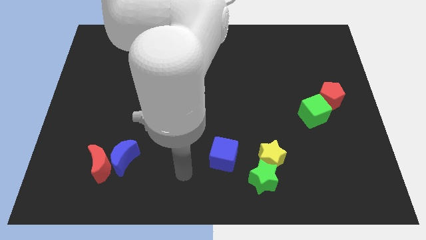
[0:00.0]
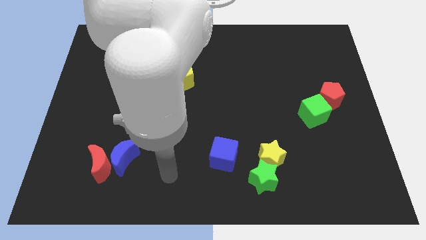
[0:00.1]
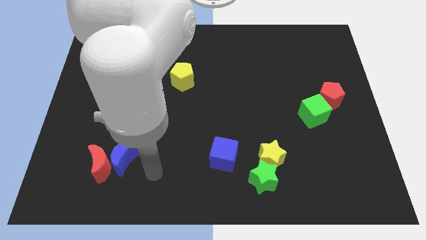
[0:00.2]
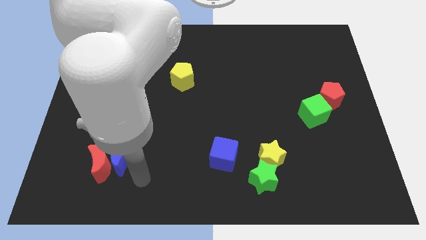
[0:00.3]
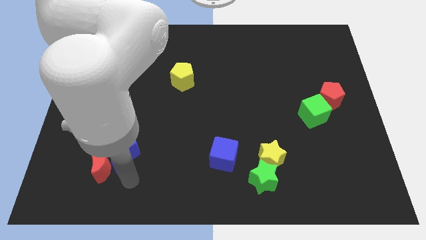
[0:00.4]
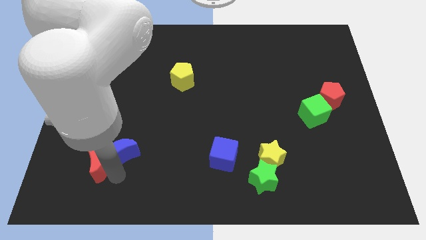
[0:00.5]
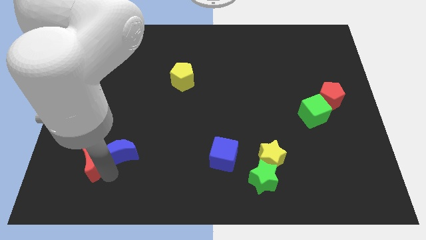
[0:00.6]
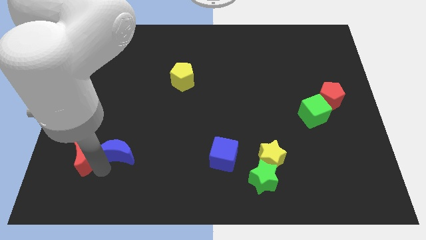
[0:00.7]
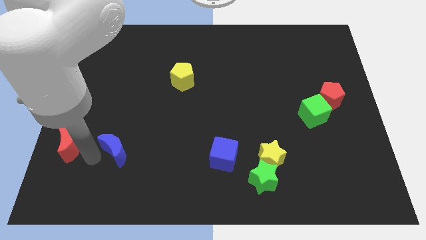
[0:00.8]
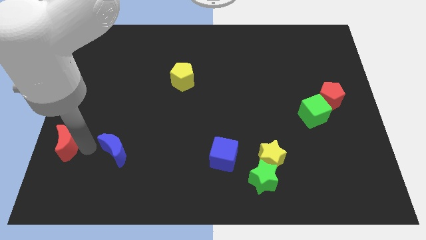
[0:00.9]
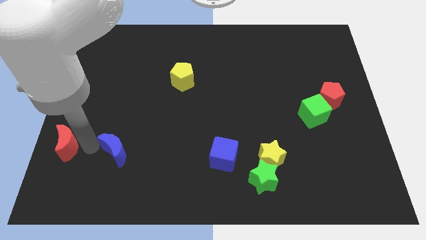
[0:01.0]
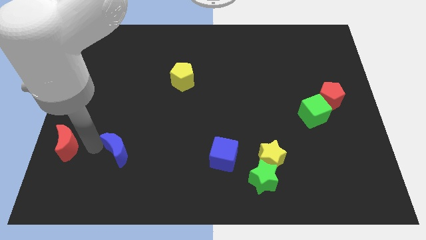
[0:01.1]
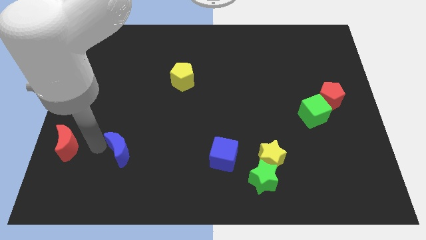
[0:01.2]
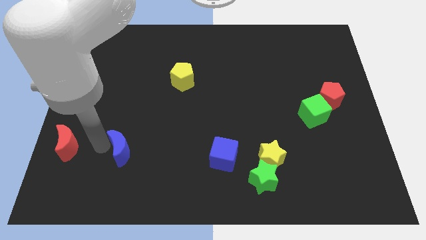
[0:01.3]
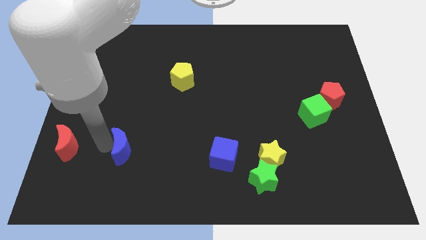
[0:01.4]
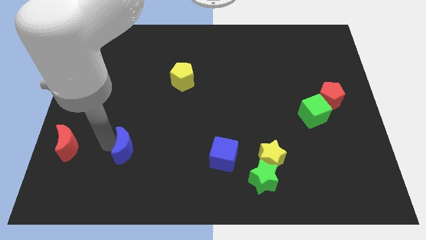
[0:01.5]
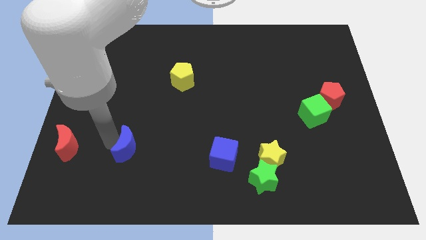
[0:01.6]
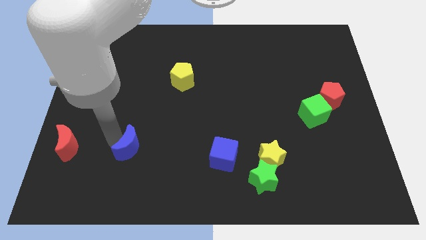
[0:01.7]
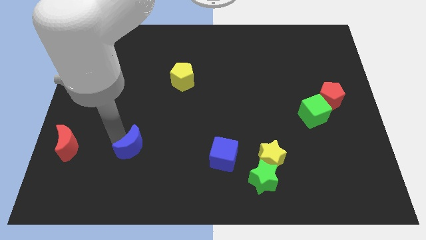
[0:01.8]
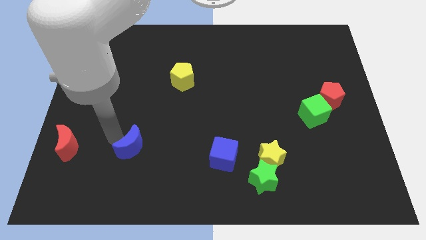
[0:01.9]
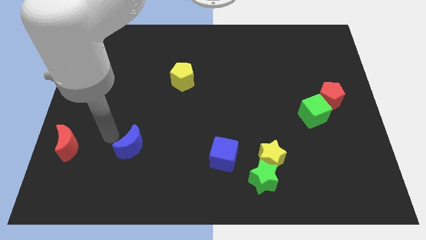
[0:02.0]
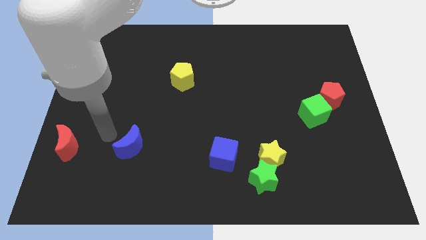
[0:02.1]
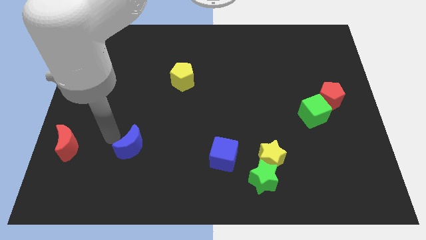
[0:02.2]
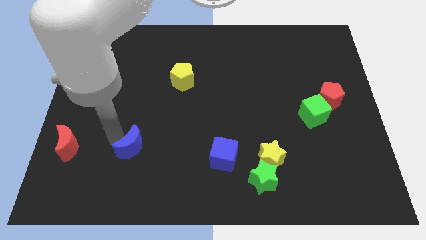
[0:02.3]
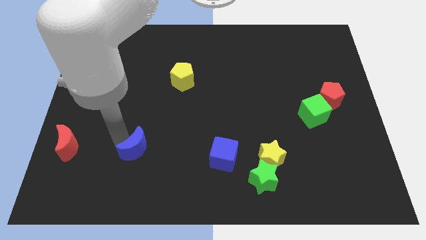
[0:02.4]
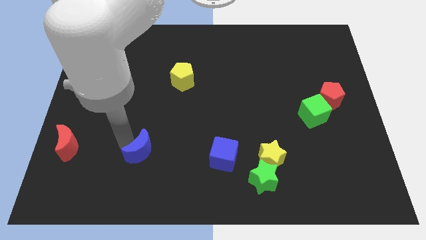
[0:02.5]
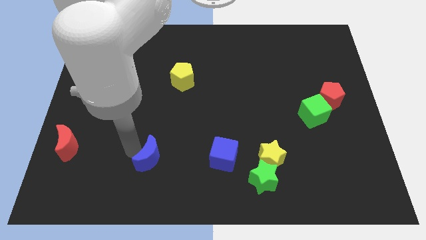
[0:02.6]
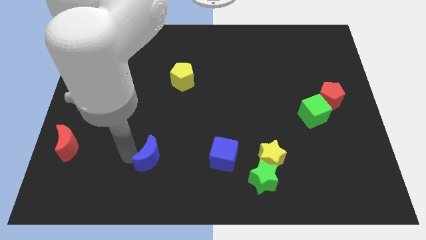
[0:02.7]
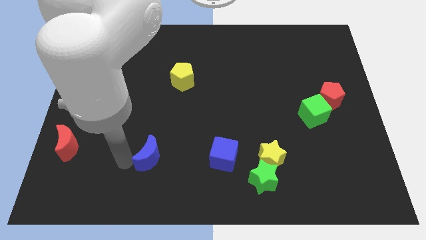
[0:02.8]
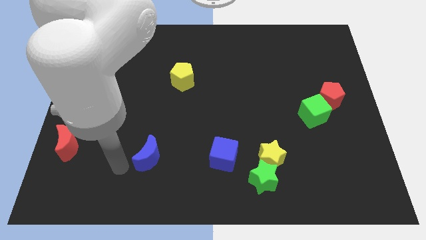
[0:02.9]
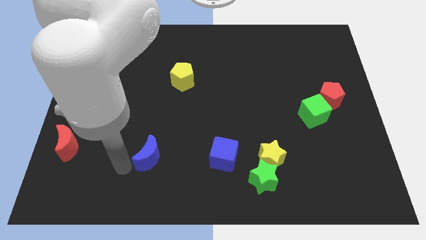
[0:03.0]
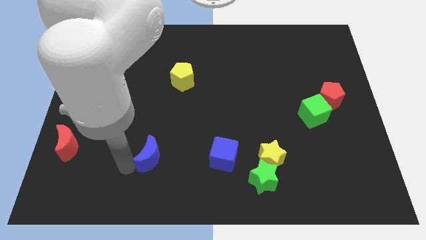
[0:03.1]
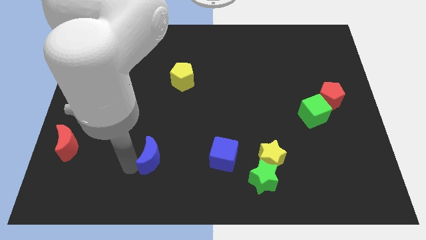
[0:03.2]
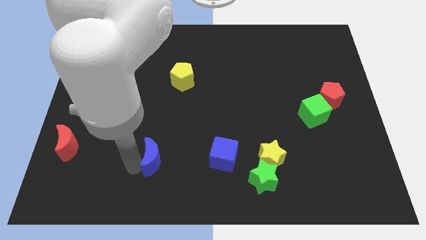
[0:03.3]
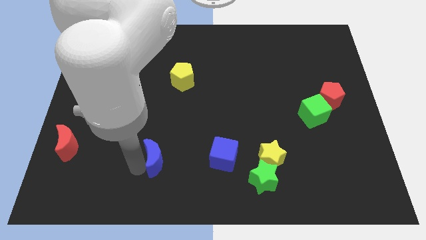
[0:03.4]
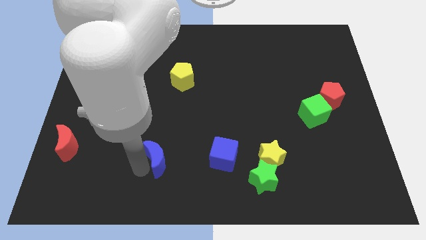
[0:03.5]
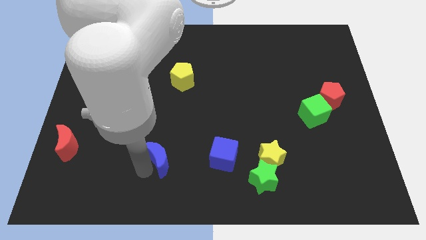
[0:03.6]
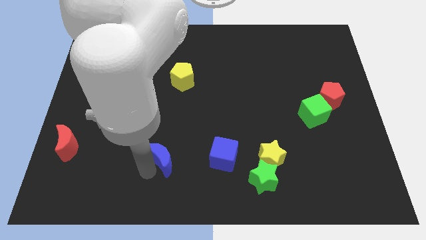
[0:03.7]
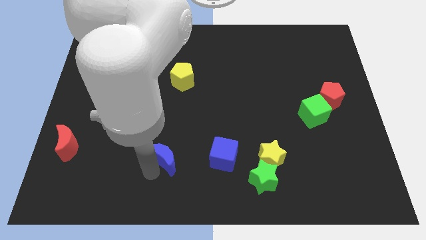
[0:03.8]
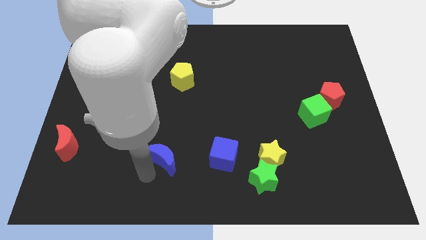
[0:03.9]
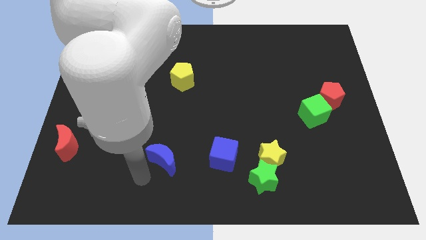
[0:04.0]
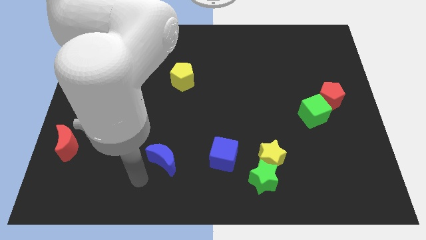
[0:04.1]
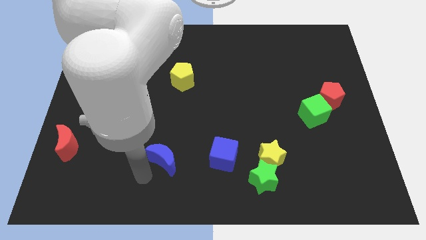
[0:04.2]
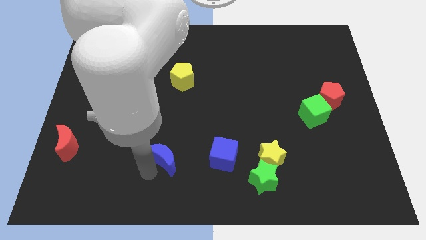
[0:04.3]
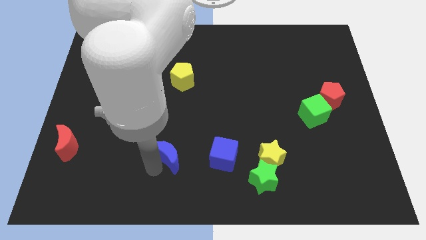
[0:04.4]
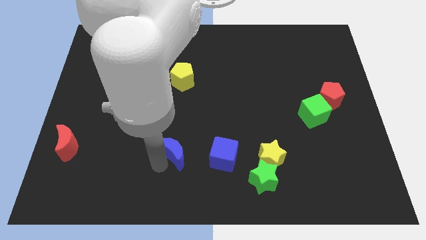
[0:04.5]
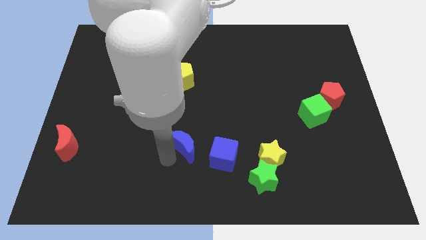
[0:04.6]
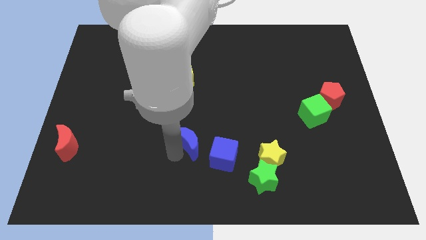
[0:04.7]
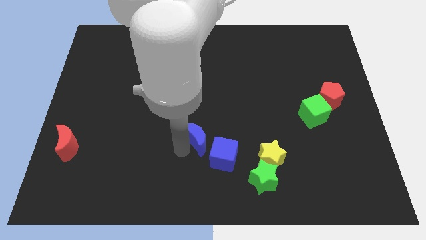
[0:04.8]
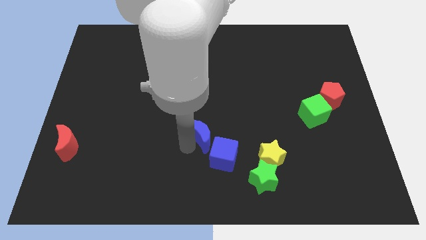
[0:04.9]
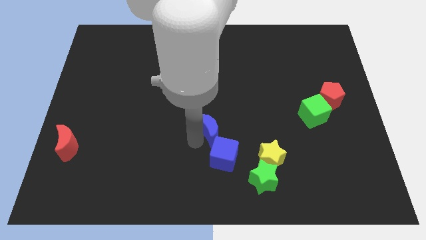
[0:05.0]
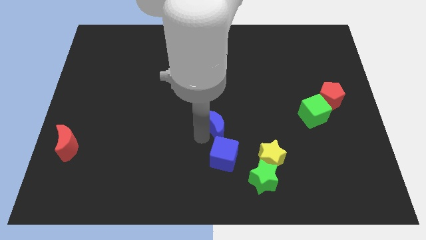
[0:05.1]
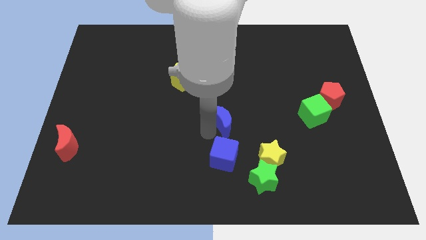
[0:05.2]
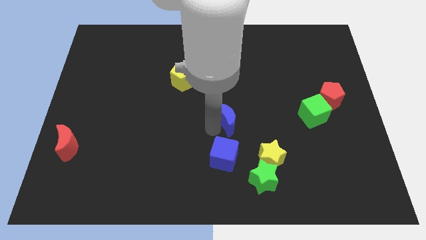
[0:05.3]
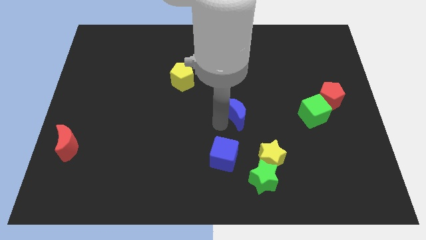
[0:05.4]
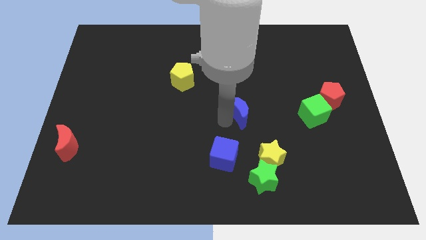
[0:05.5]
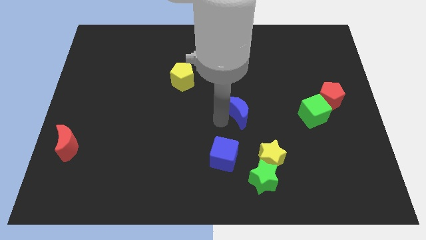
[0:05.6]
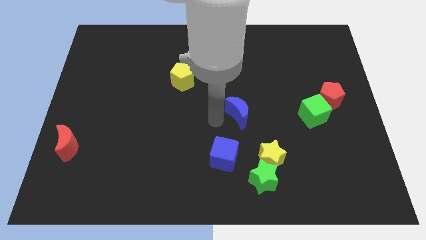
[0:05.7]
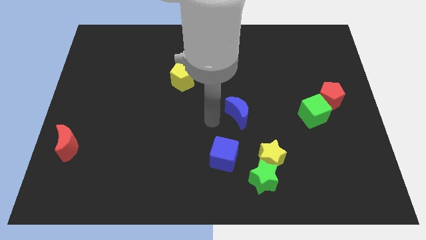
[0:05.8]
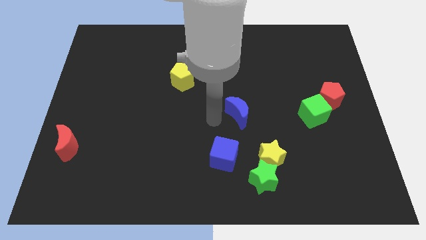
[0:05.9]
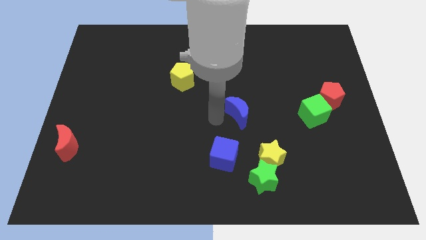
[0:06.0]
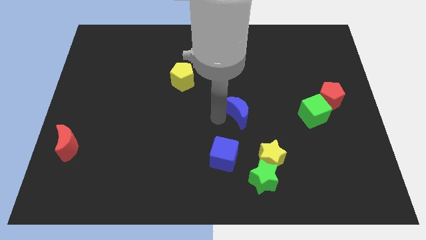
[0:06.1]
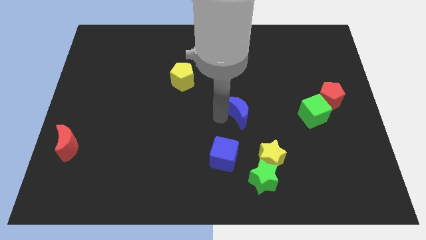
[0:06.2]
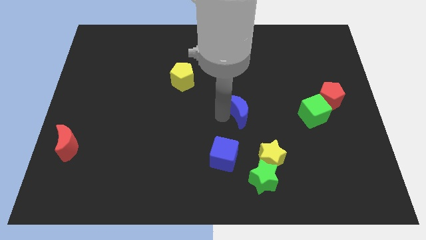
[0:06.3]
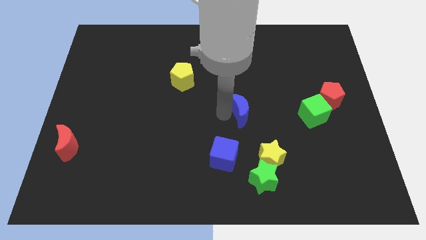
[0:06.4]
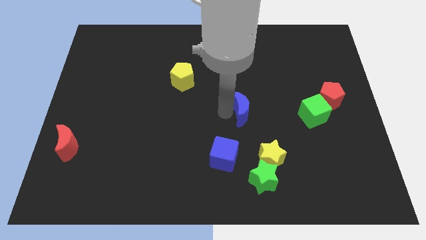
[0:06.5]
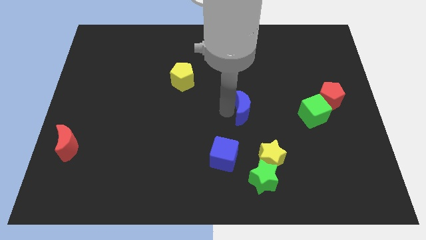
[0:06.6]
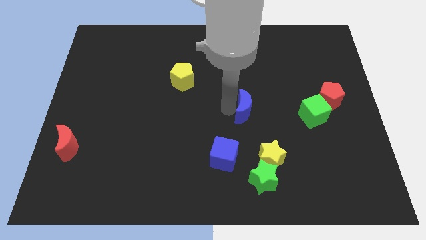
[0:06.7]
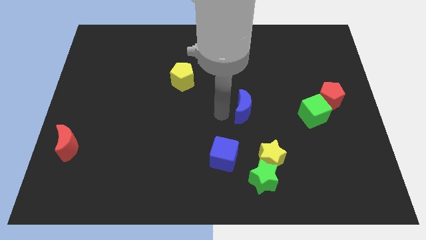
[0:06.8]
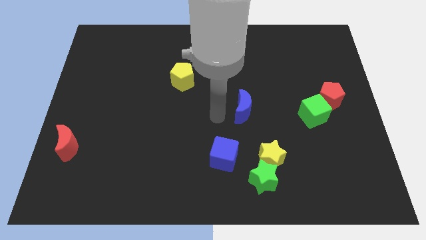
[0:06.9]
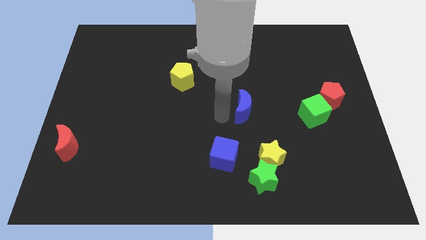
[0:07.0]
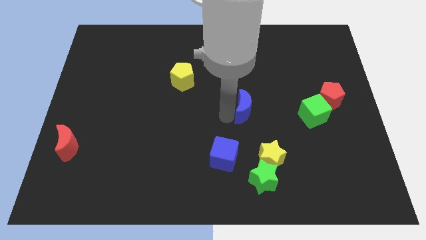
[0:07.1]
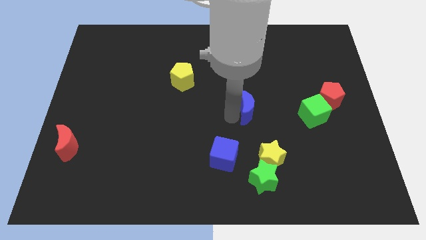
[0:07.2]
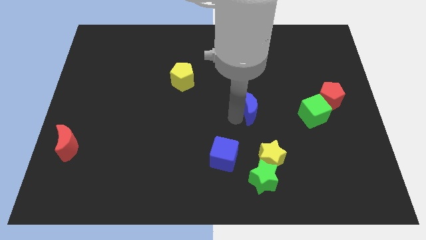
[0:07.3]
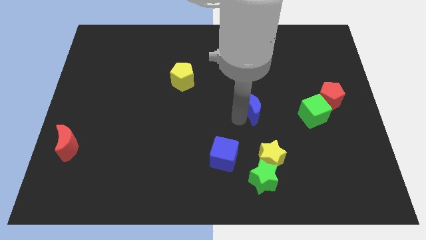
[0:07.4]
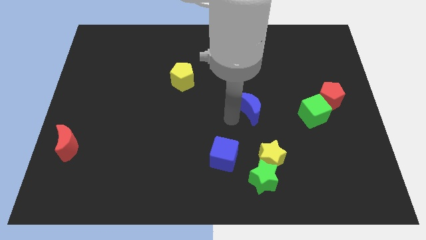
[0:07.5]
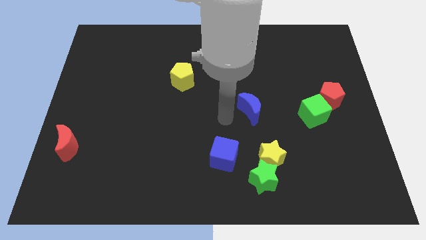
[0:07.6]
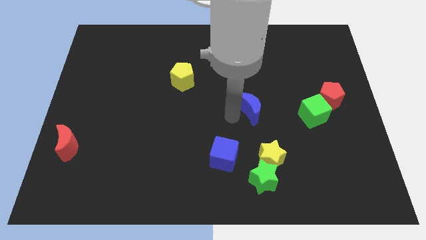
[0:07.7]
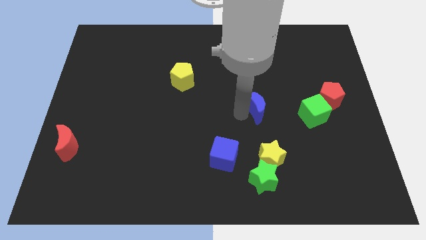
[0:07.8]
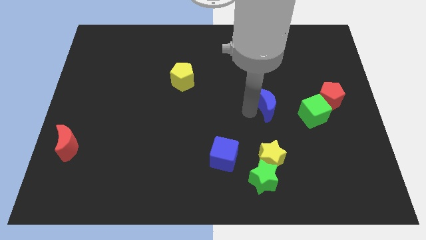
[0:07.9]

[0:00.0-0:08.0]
put the blue moon to the left of the red pentagon
